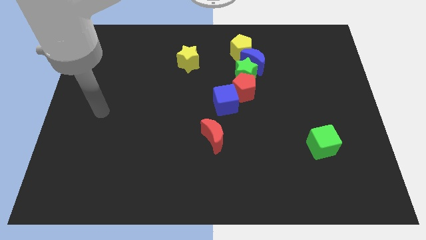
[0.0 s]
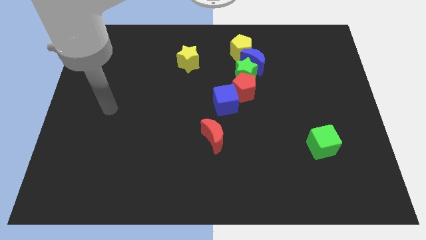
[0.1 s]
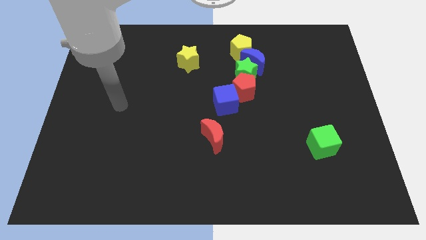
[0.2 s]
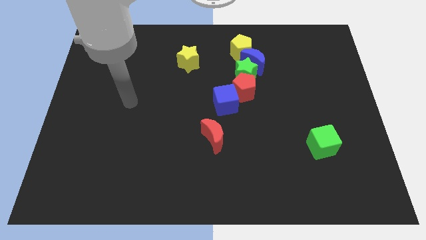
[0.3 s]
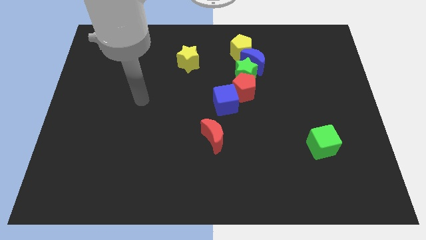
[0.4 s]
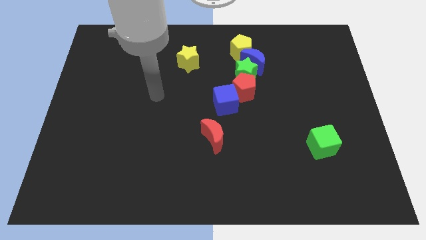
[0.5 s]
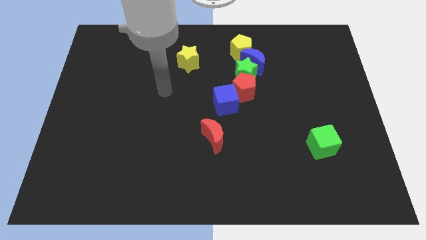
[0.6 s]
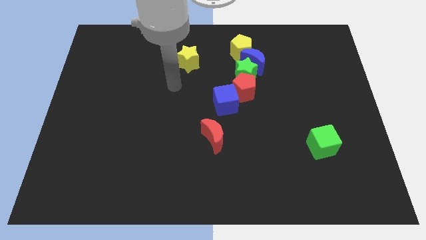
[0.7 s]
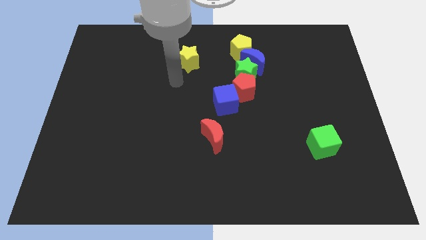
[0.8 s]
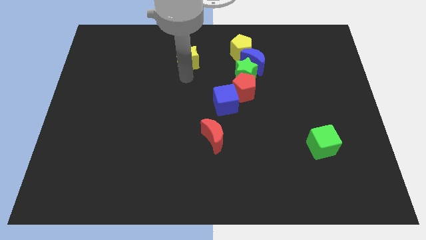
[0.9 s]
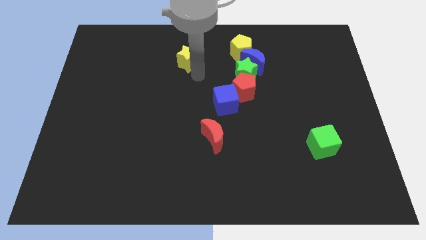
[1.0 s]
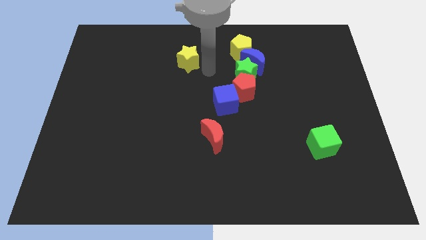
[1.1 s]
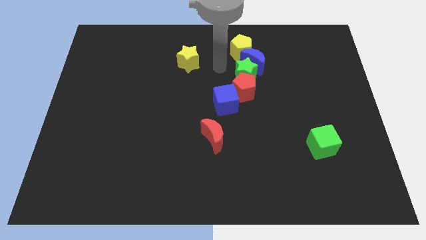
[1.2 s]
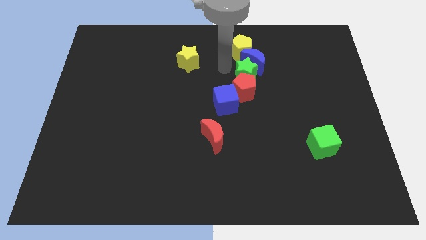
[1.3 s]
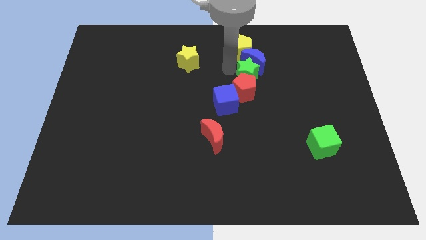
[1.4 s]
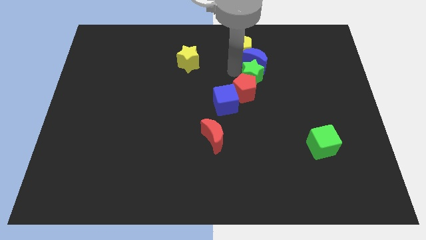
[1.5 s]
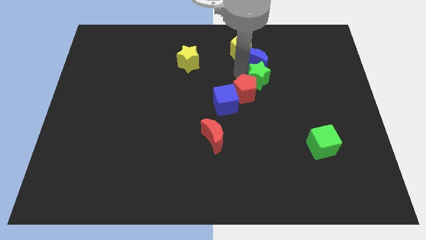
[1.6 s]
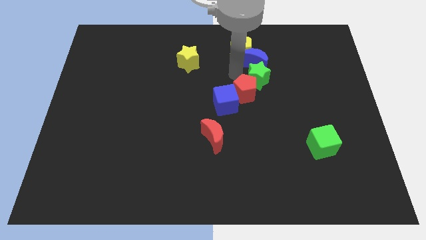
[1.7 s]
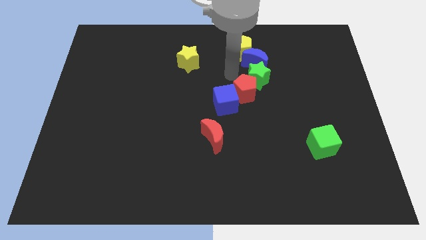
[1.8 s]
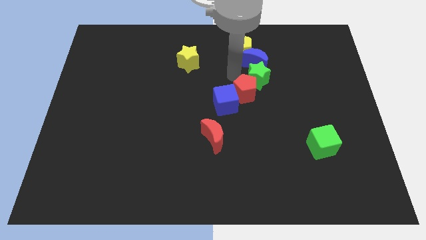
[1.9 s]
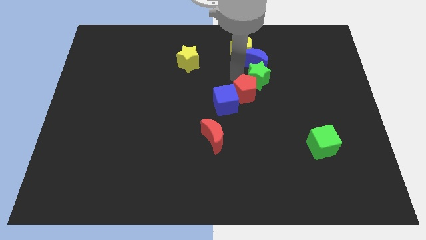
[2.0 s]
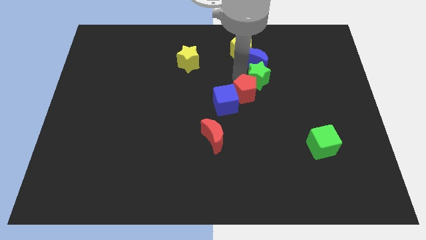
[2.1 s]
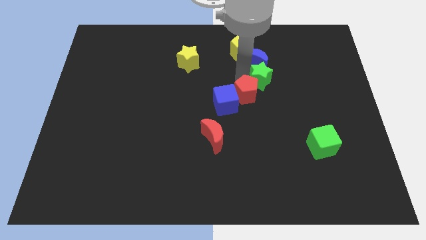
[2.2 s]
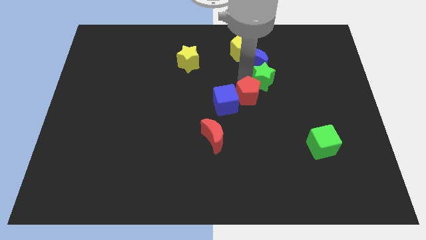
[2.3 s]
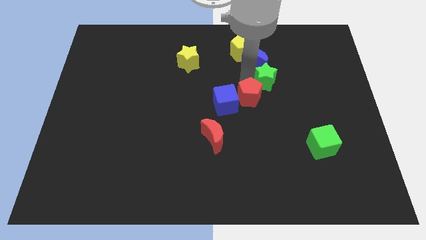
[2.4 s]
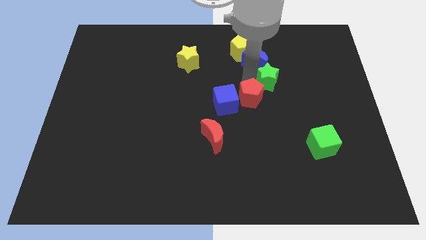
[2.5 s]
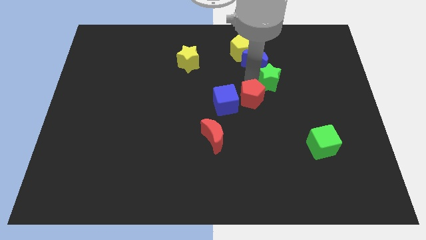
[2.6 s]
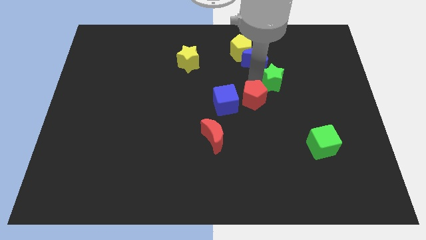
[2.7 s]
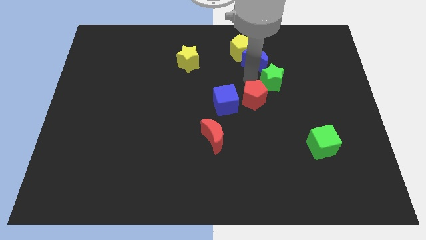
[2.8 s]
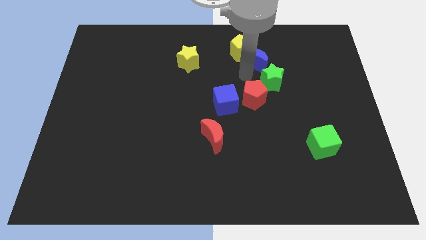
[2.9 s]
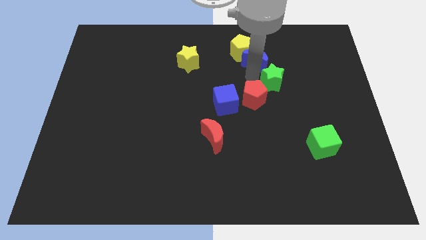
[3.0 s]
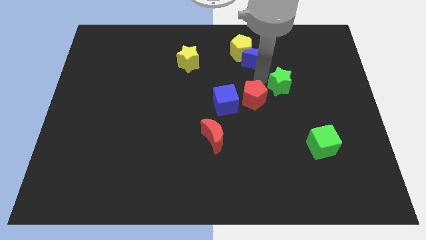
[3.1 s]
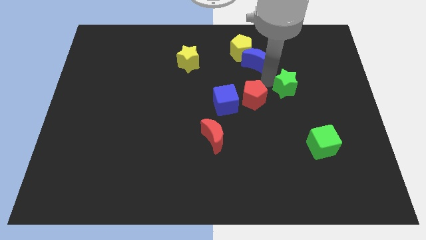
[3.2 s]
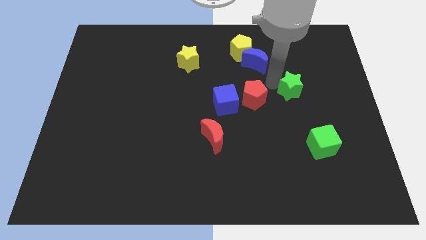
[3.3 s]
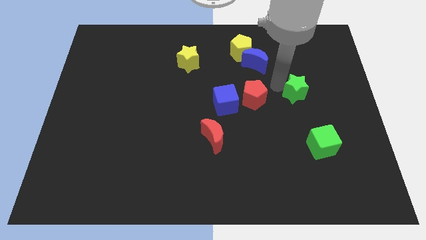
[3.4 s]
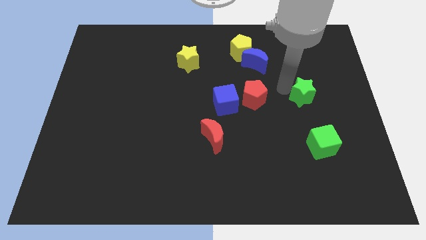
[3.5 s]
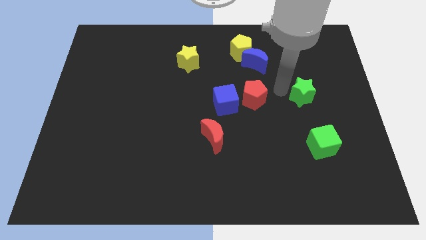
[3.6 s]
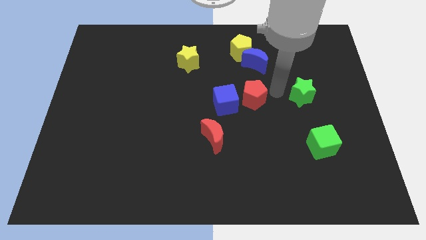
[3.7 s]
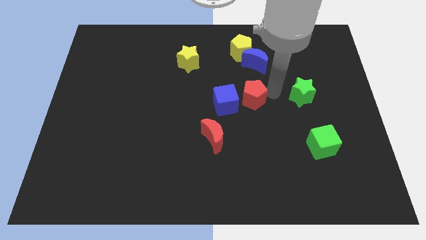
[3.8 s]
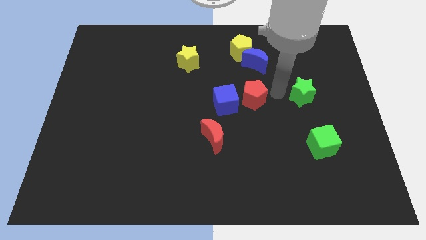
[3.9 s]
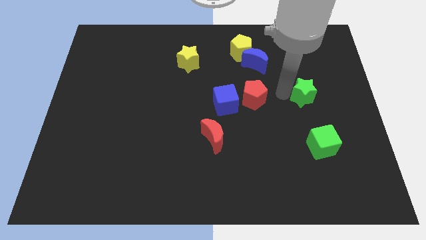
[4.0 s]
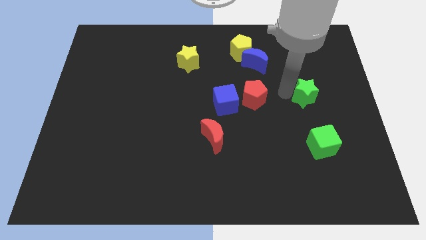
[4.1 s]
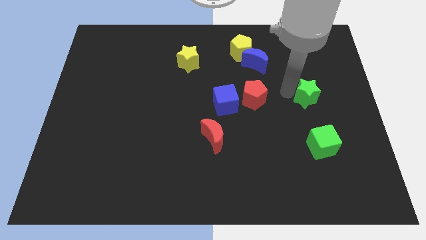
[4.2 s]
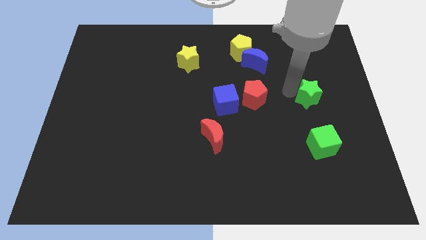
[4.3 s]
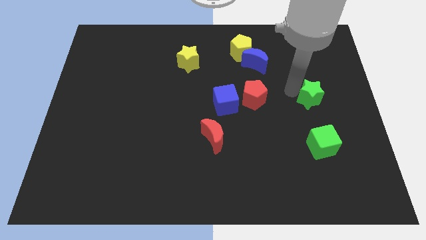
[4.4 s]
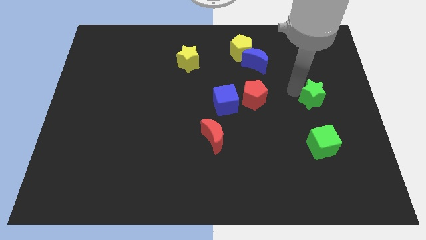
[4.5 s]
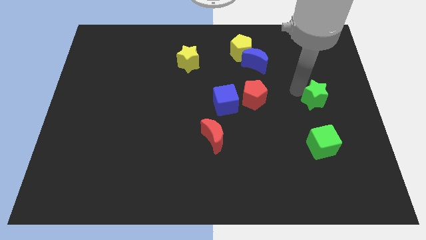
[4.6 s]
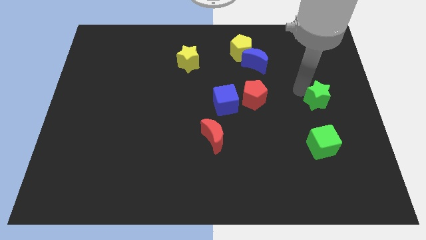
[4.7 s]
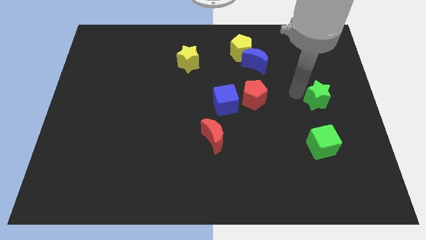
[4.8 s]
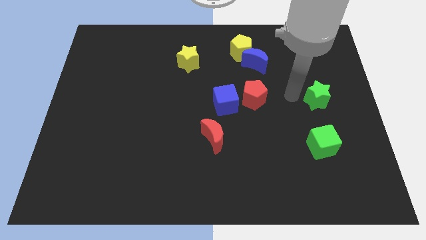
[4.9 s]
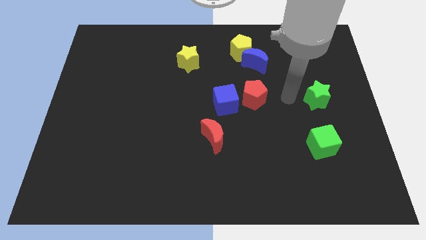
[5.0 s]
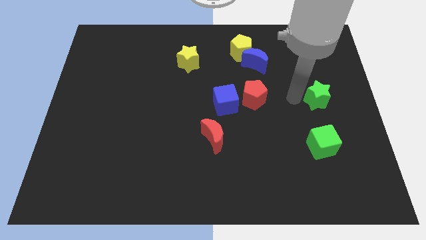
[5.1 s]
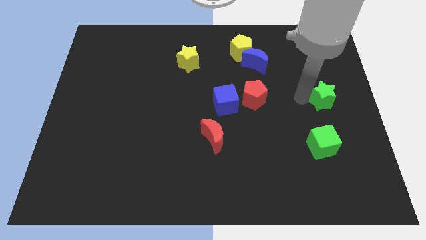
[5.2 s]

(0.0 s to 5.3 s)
push the green star to the right side of the board

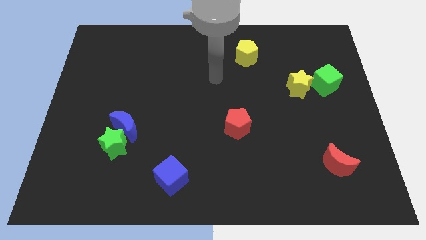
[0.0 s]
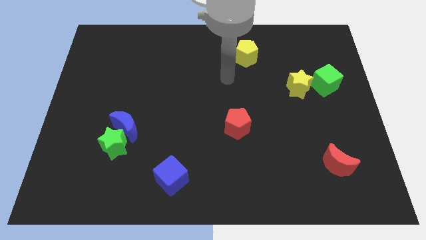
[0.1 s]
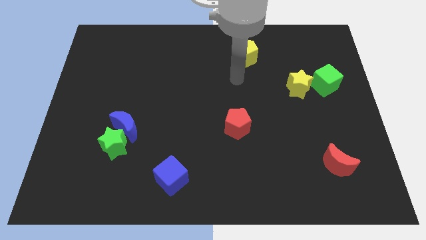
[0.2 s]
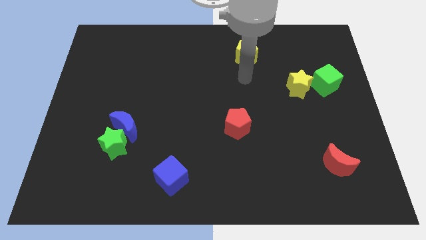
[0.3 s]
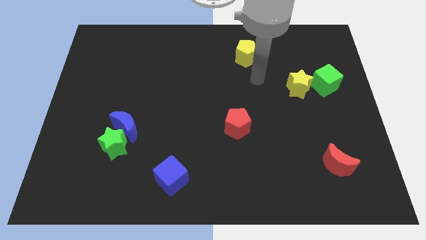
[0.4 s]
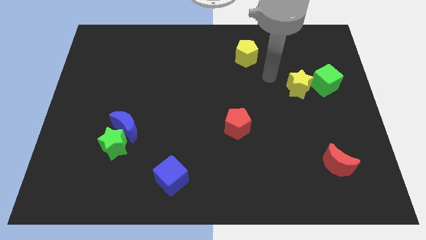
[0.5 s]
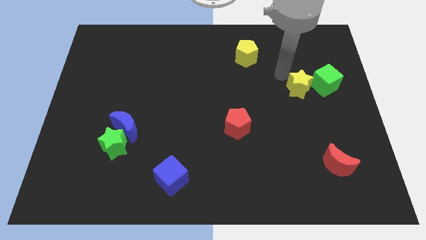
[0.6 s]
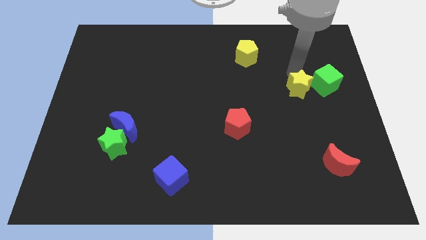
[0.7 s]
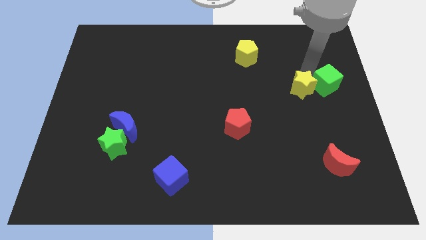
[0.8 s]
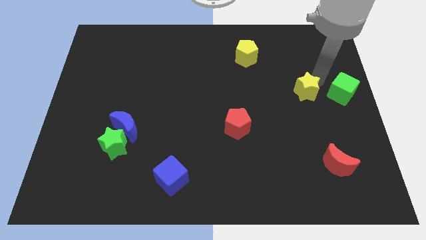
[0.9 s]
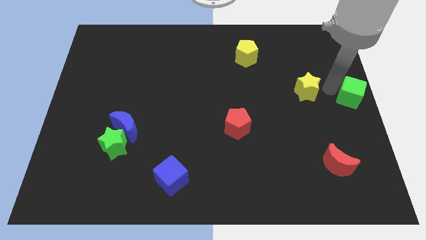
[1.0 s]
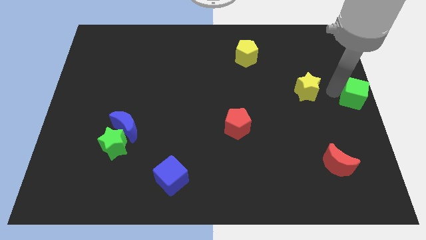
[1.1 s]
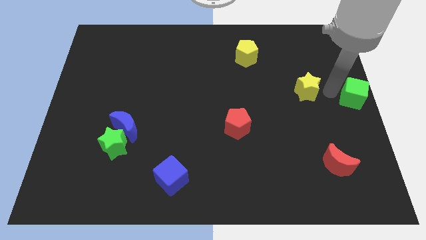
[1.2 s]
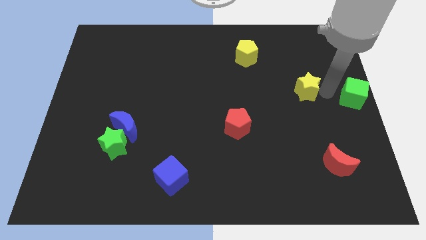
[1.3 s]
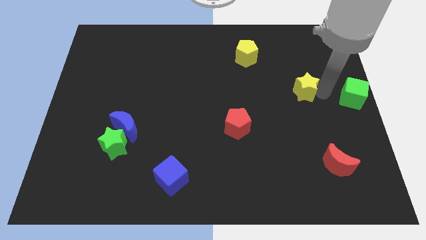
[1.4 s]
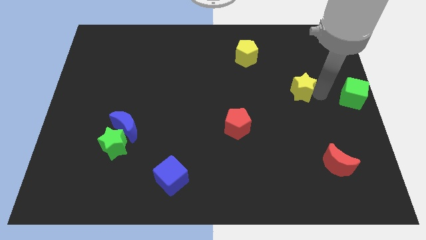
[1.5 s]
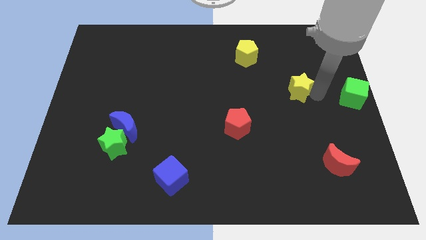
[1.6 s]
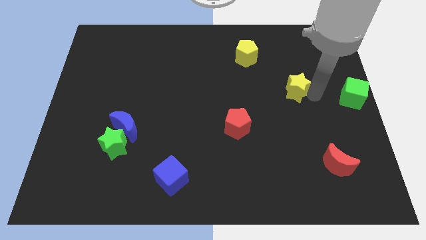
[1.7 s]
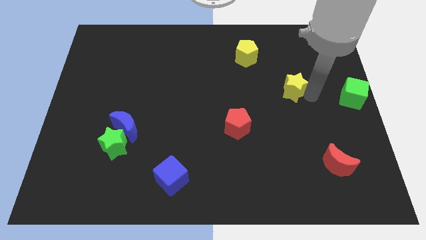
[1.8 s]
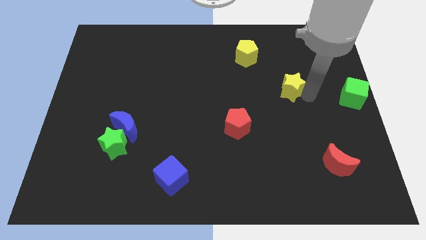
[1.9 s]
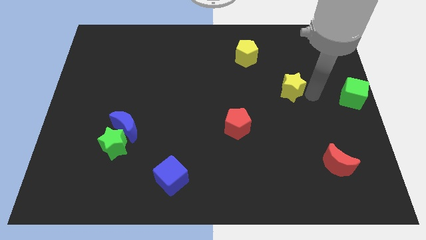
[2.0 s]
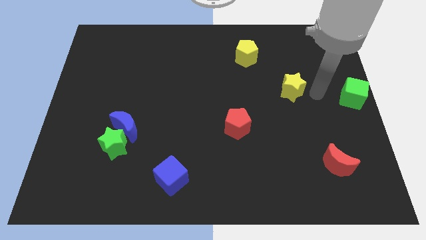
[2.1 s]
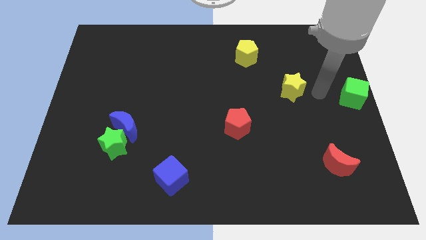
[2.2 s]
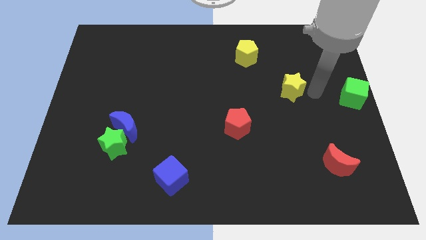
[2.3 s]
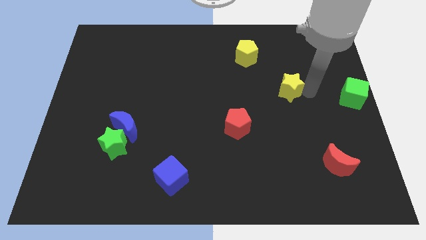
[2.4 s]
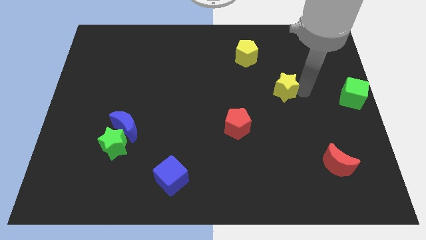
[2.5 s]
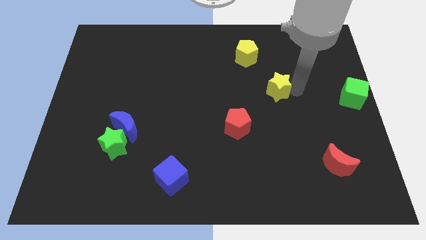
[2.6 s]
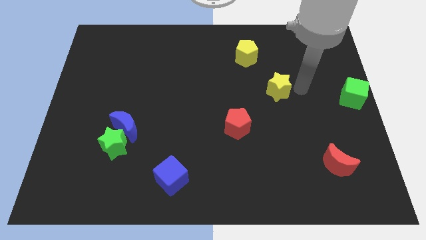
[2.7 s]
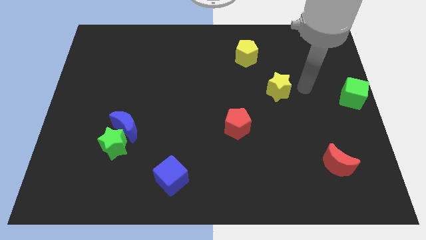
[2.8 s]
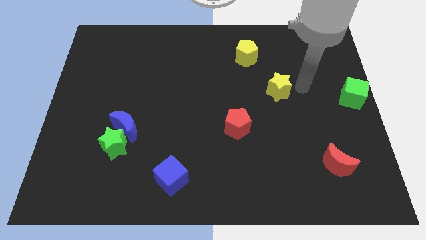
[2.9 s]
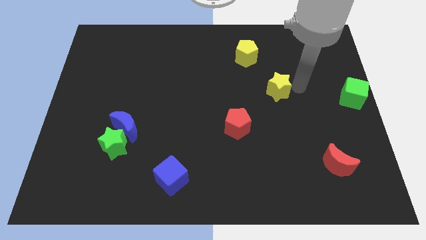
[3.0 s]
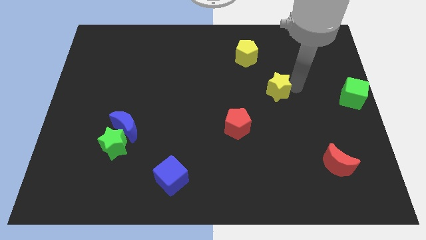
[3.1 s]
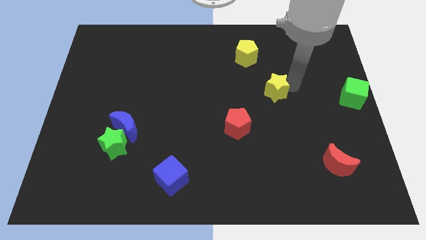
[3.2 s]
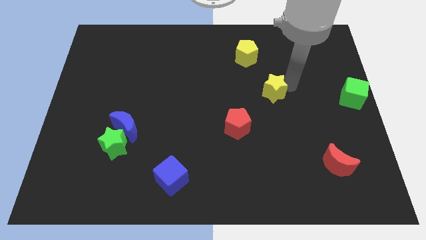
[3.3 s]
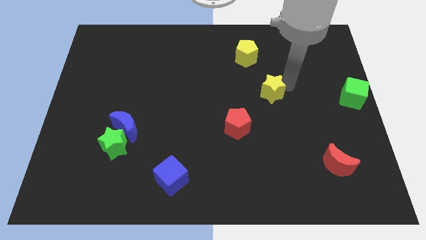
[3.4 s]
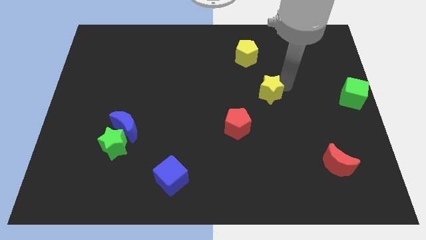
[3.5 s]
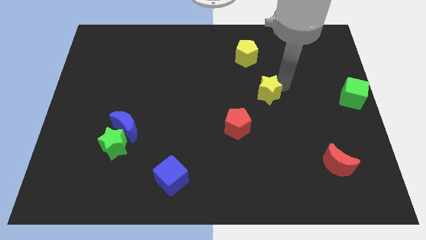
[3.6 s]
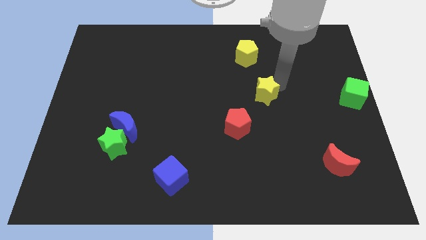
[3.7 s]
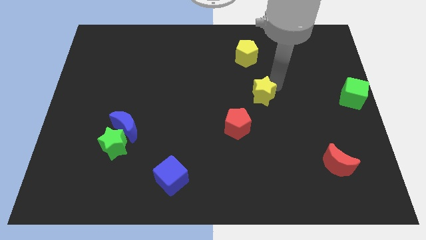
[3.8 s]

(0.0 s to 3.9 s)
move the yellow star to the middle of the board
